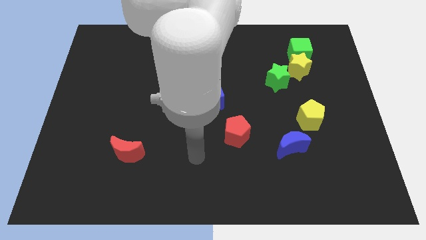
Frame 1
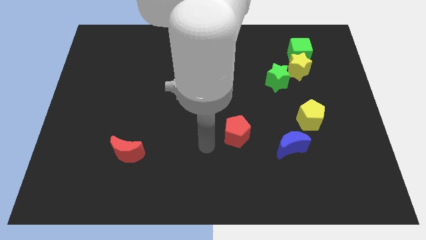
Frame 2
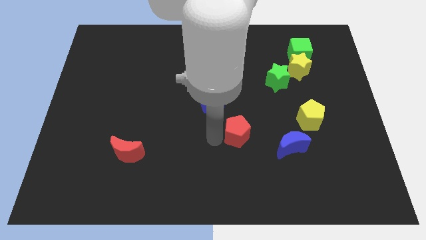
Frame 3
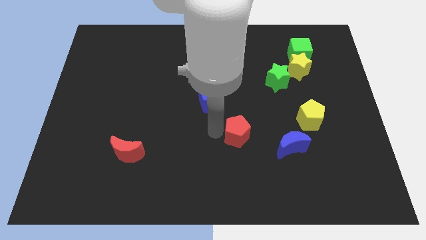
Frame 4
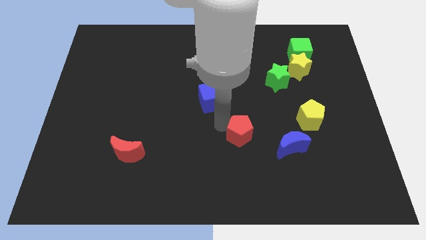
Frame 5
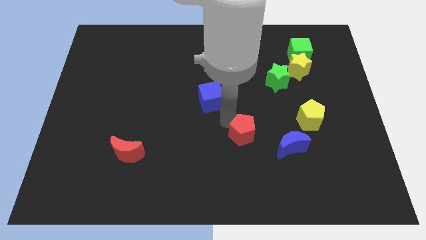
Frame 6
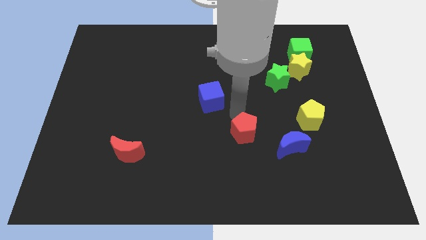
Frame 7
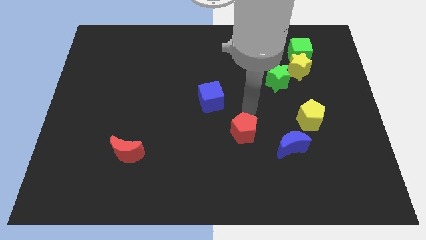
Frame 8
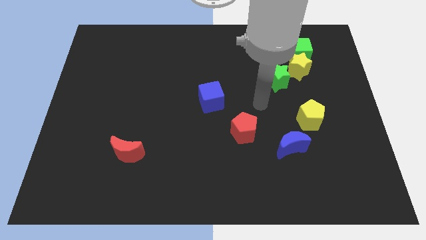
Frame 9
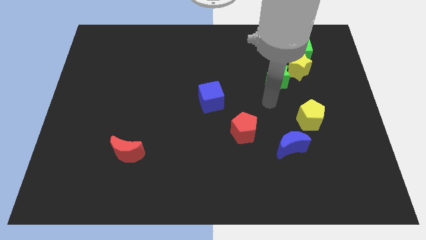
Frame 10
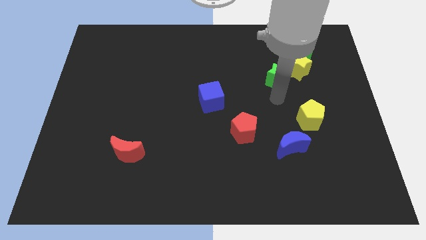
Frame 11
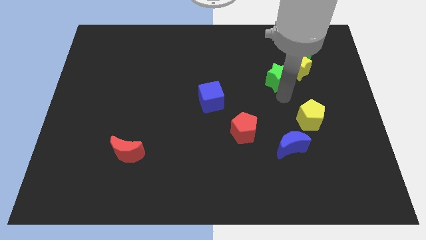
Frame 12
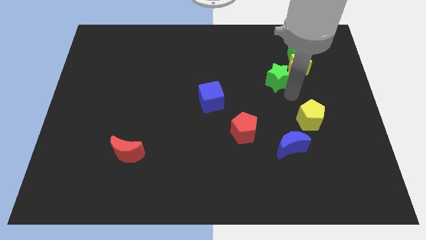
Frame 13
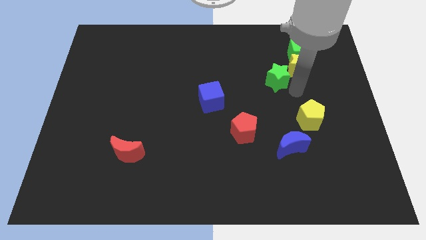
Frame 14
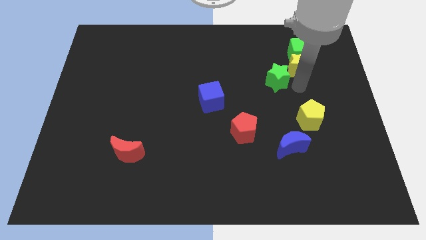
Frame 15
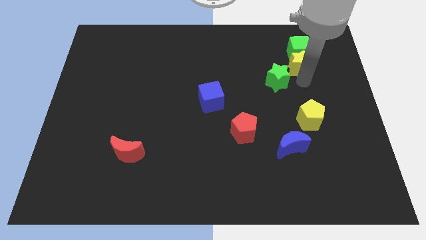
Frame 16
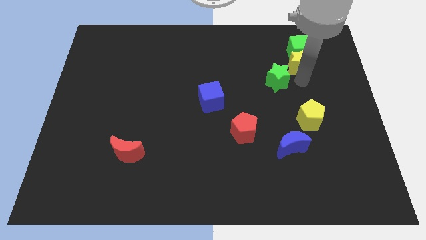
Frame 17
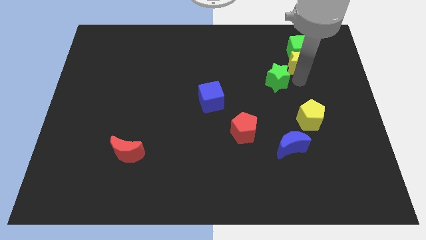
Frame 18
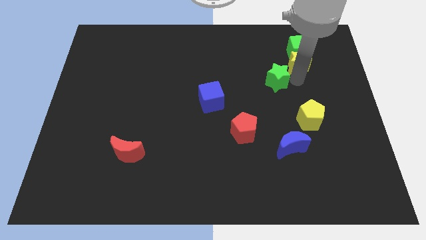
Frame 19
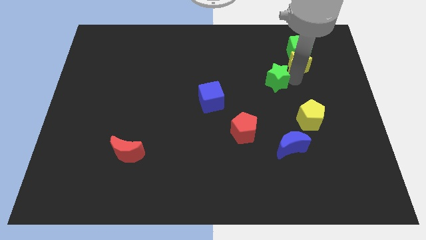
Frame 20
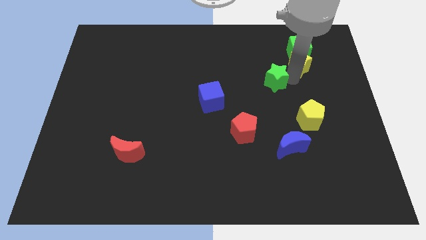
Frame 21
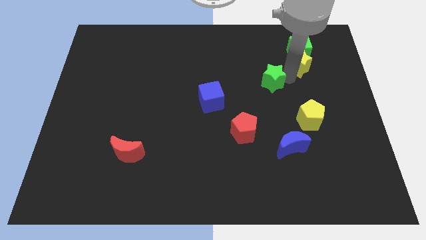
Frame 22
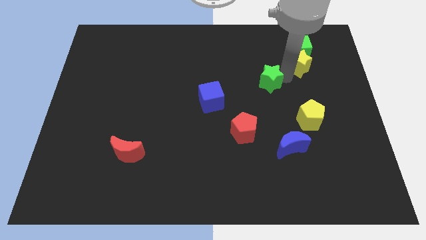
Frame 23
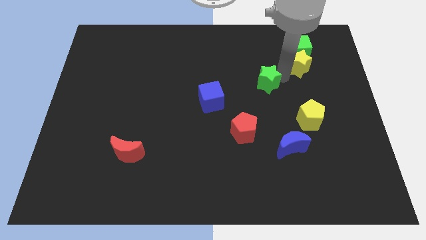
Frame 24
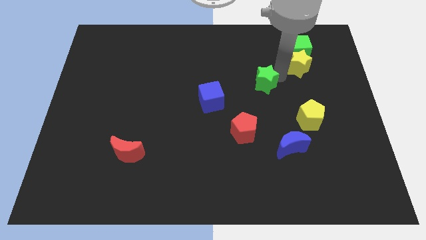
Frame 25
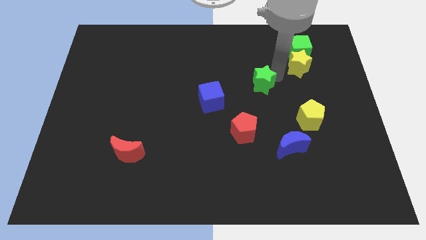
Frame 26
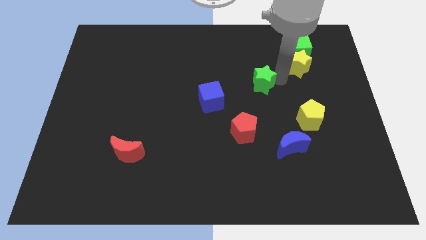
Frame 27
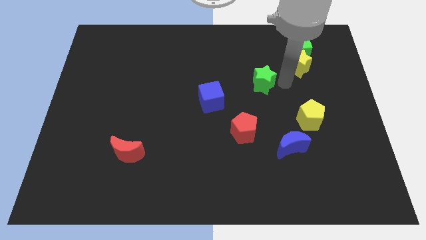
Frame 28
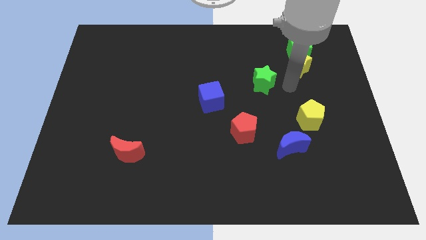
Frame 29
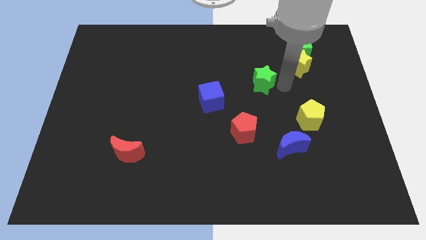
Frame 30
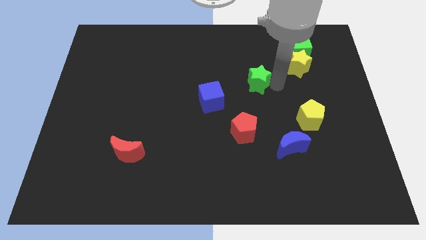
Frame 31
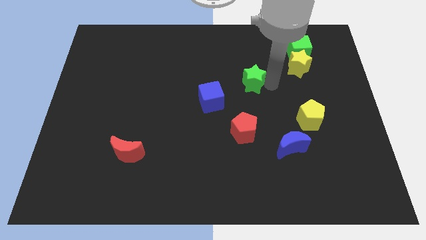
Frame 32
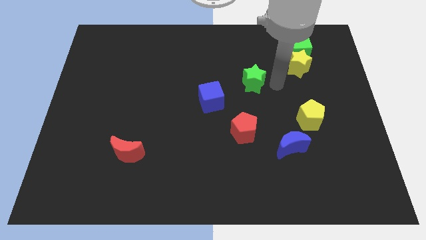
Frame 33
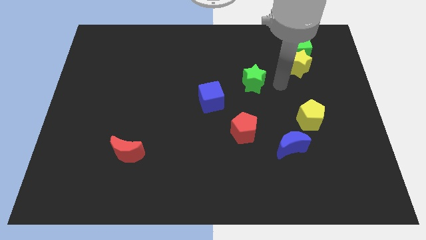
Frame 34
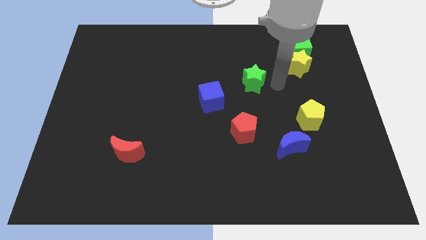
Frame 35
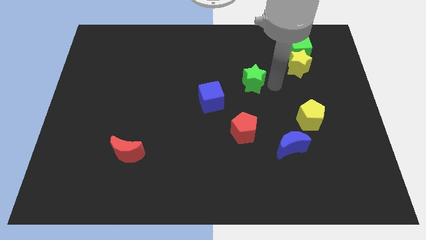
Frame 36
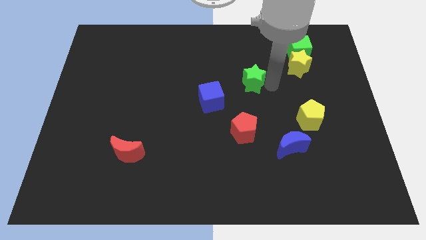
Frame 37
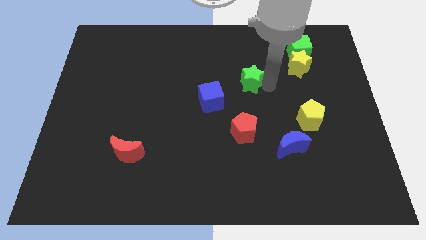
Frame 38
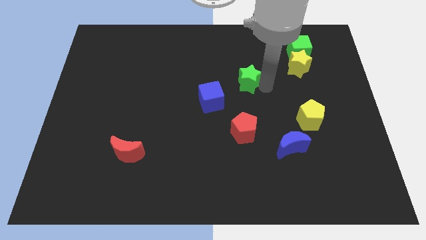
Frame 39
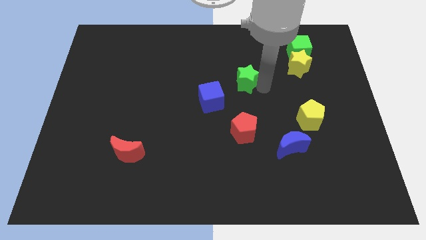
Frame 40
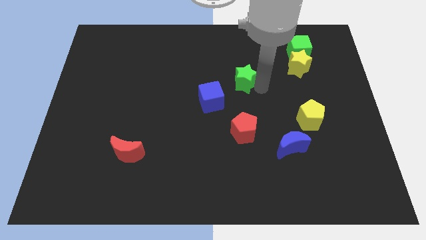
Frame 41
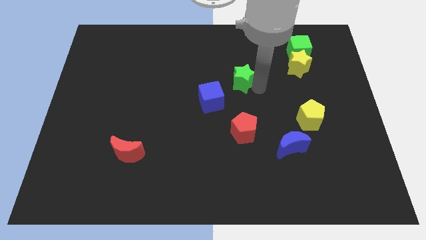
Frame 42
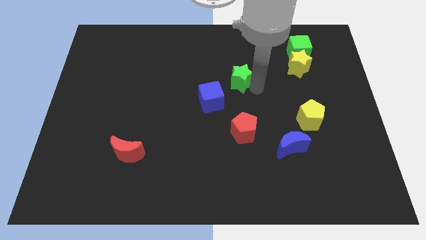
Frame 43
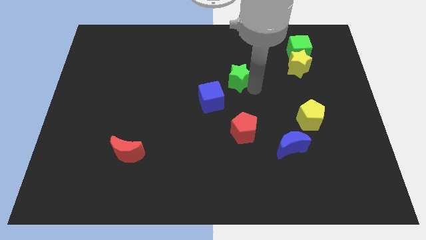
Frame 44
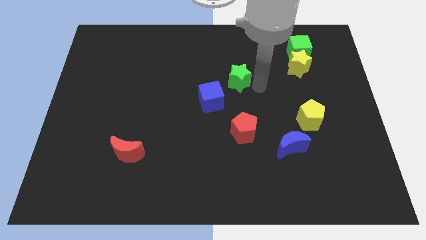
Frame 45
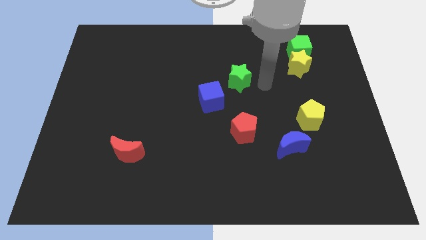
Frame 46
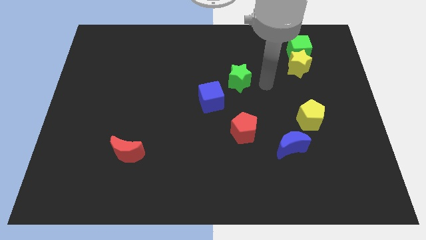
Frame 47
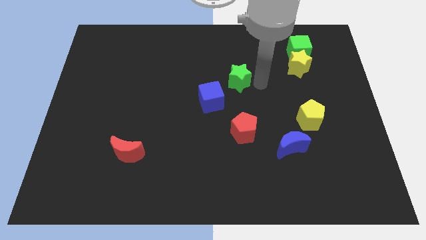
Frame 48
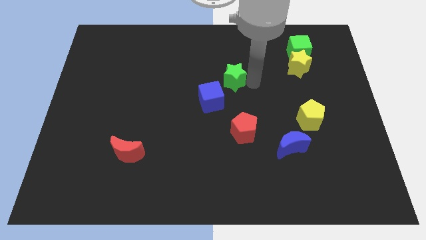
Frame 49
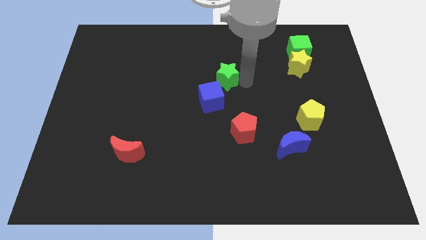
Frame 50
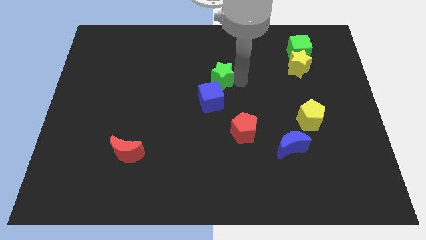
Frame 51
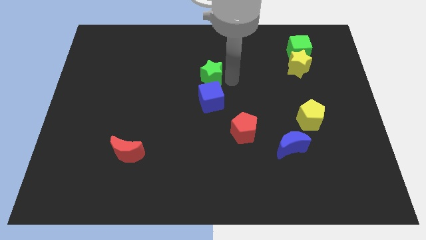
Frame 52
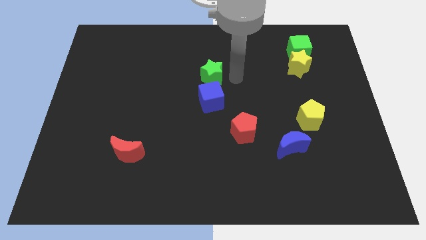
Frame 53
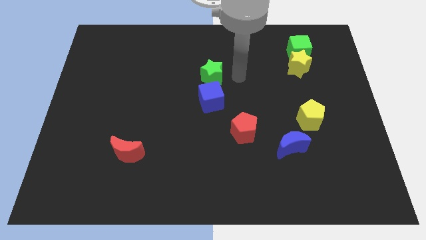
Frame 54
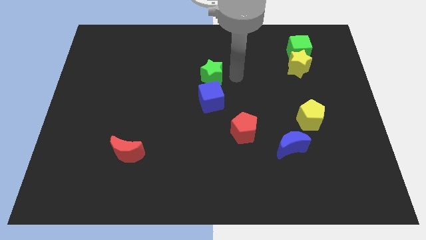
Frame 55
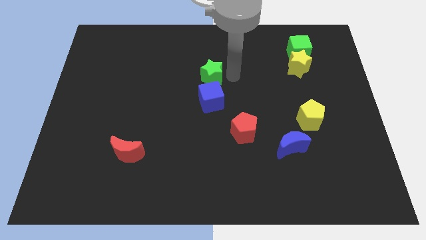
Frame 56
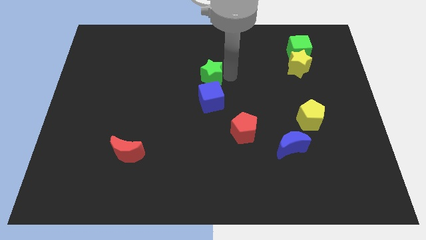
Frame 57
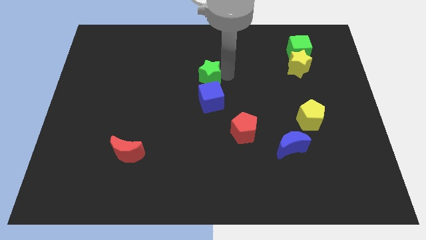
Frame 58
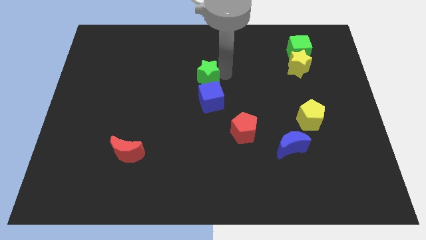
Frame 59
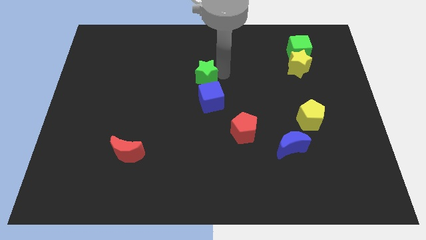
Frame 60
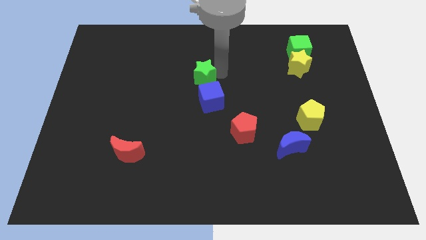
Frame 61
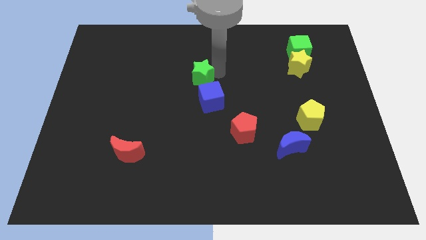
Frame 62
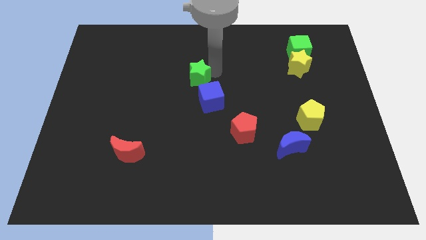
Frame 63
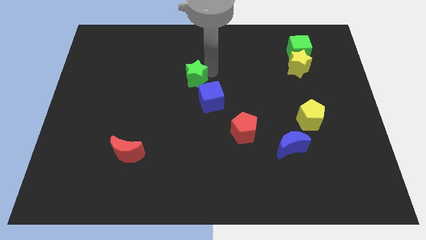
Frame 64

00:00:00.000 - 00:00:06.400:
slide the green star to the left

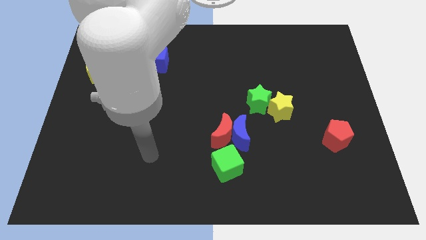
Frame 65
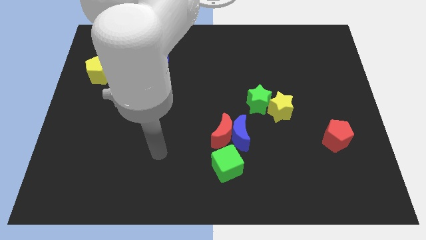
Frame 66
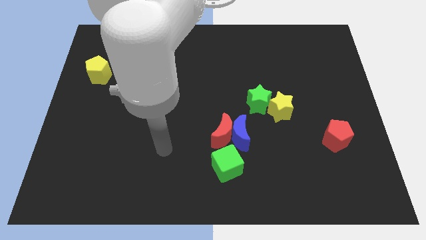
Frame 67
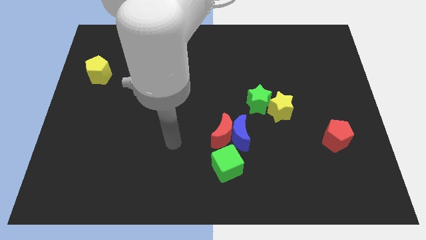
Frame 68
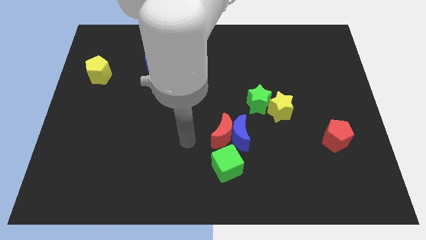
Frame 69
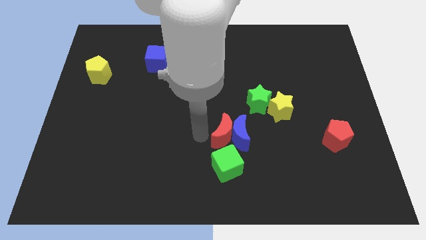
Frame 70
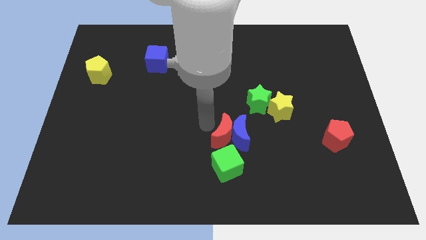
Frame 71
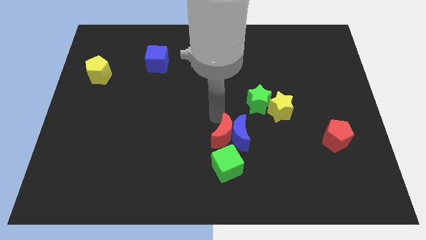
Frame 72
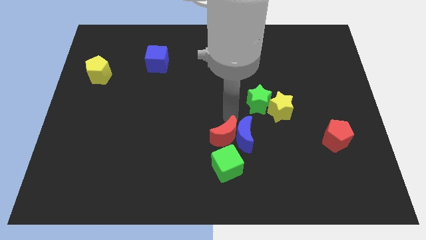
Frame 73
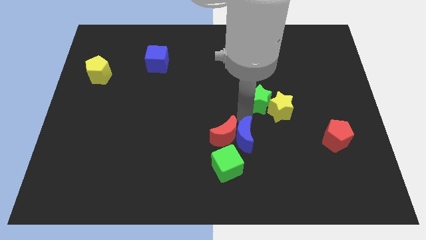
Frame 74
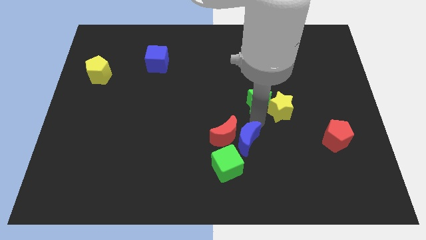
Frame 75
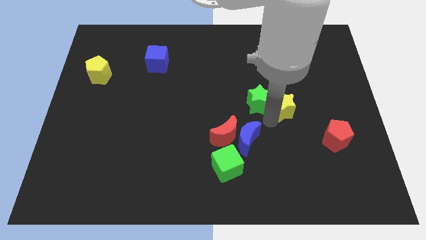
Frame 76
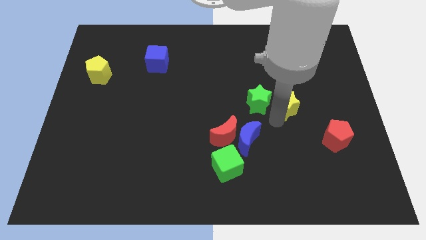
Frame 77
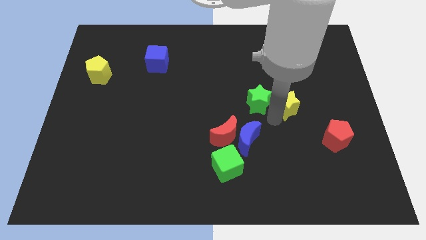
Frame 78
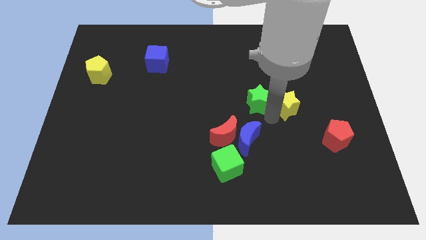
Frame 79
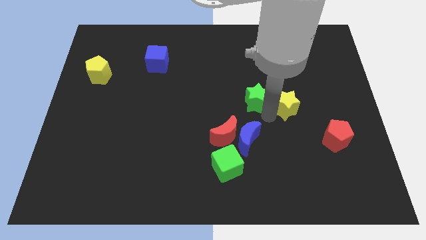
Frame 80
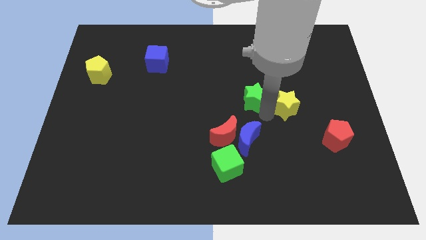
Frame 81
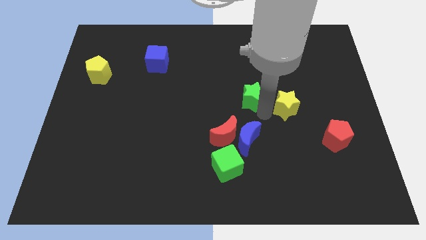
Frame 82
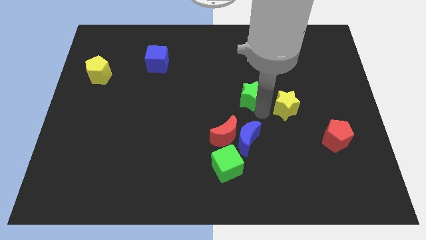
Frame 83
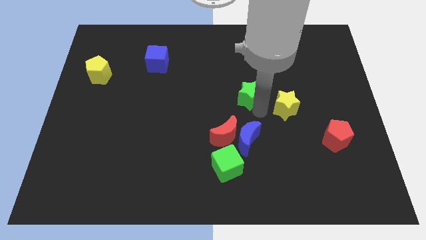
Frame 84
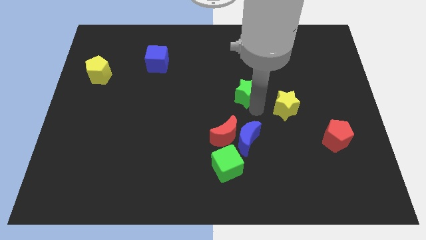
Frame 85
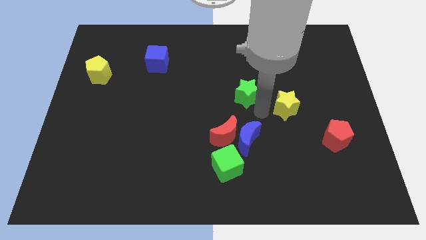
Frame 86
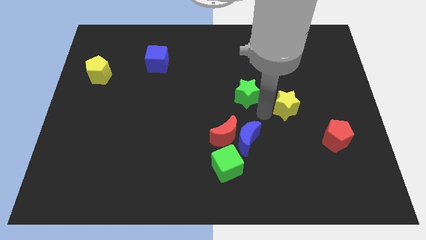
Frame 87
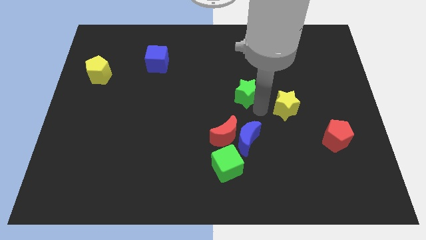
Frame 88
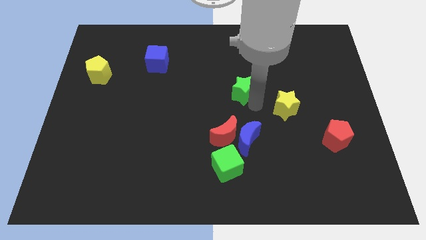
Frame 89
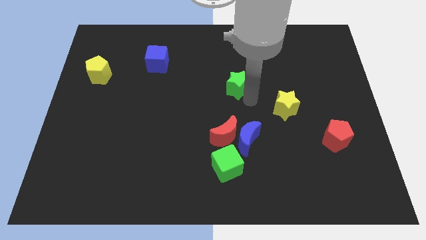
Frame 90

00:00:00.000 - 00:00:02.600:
move the green star a bit upwards and to the left diagonally
